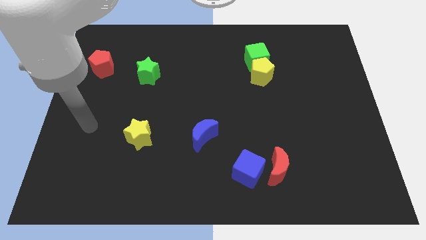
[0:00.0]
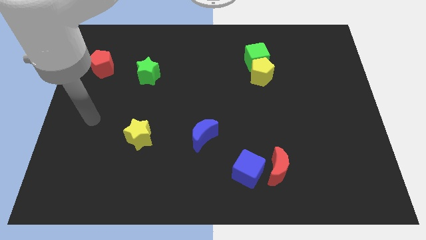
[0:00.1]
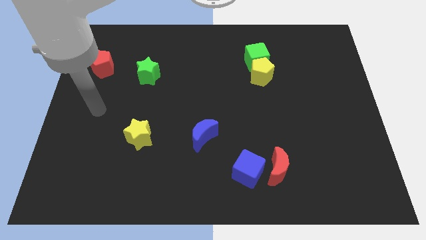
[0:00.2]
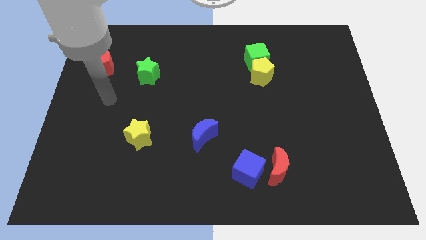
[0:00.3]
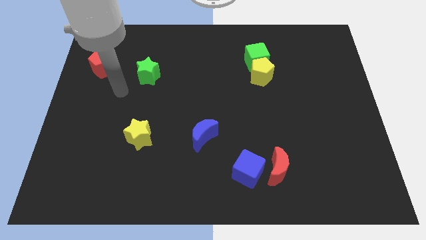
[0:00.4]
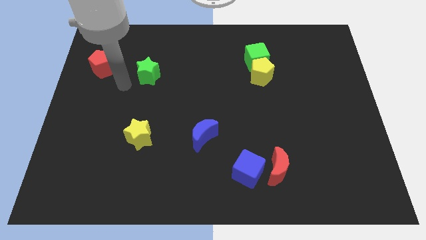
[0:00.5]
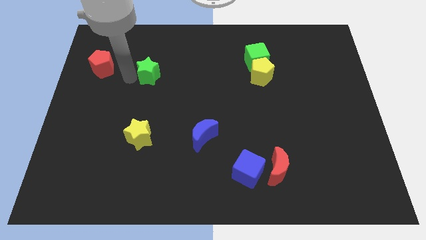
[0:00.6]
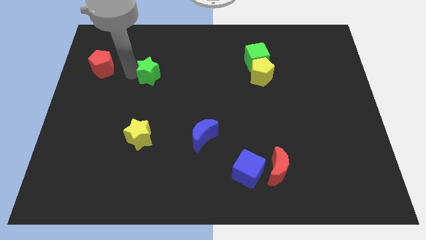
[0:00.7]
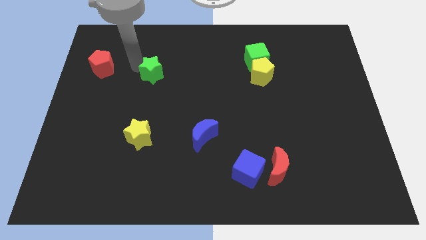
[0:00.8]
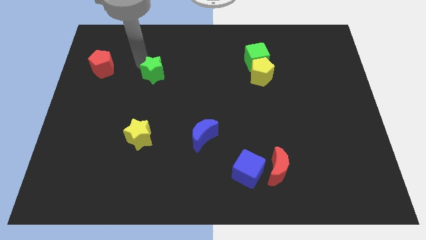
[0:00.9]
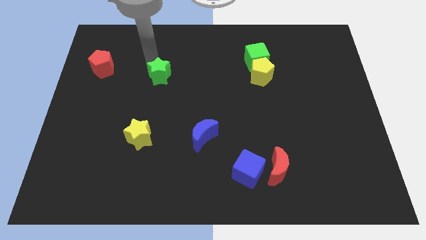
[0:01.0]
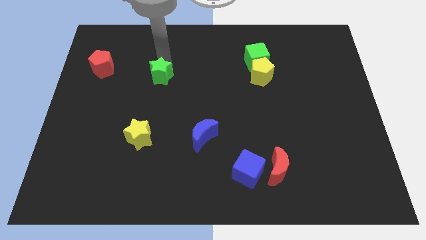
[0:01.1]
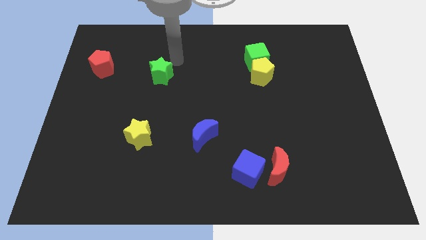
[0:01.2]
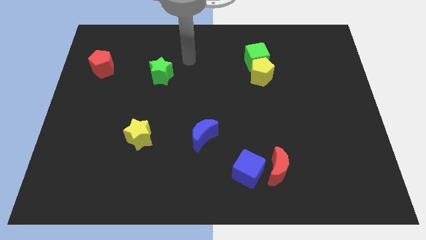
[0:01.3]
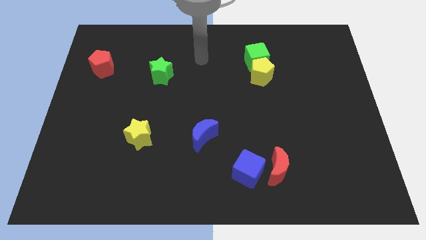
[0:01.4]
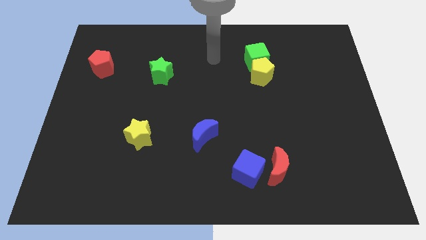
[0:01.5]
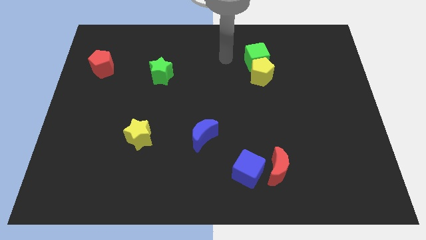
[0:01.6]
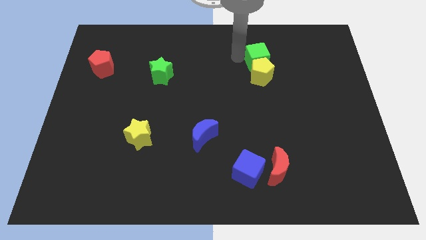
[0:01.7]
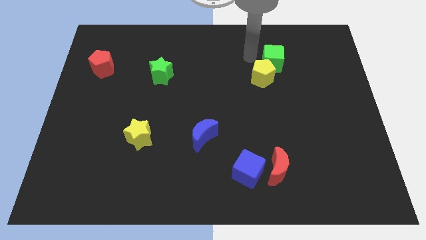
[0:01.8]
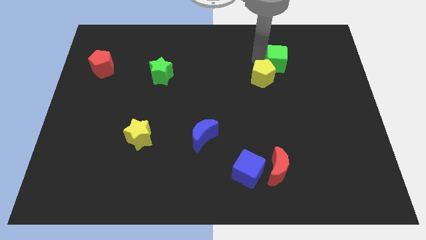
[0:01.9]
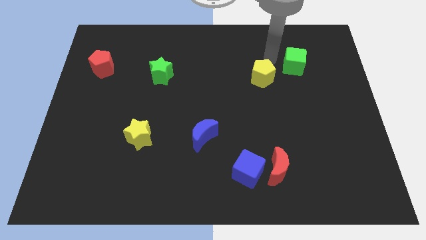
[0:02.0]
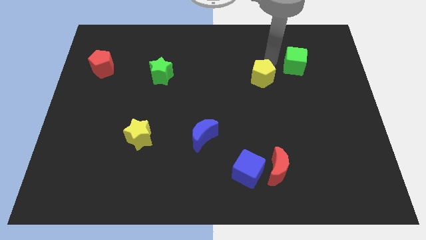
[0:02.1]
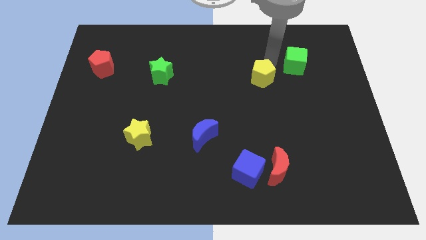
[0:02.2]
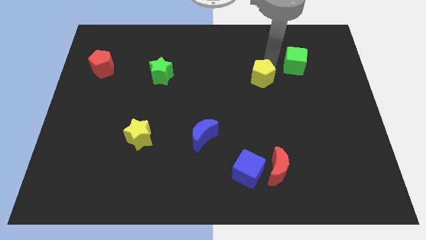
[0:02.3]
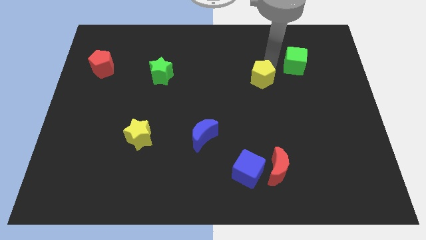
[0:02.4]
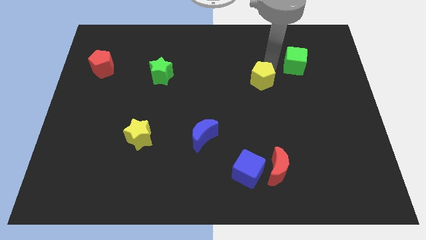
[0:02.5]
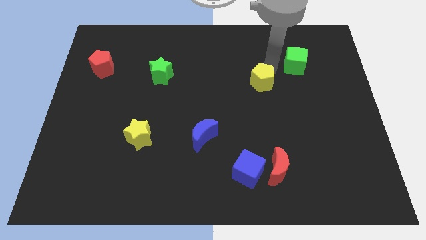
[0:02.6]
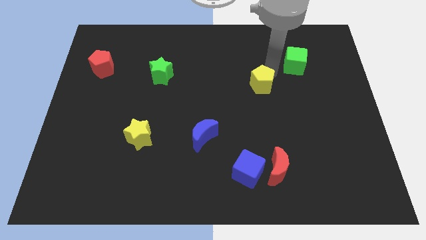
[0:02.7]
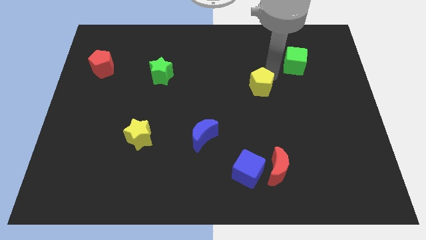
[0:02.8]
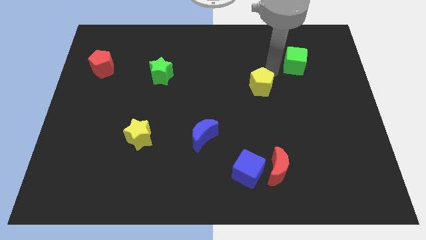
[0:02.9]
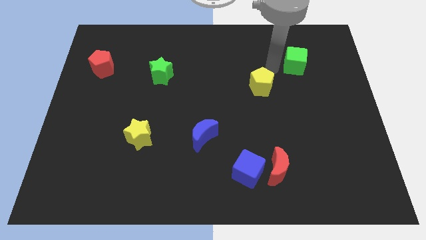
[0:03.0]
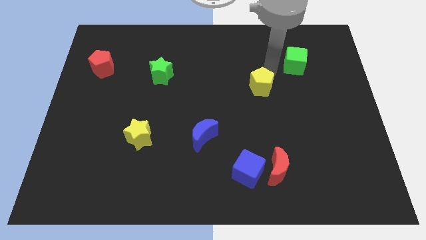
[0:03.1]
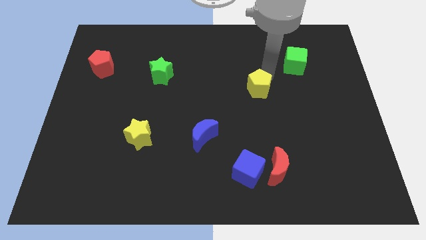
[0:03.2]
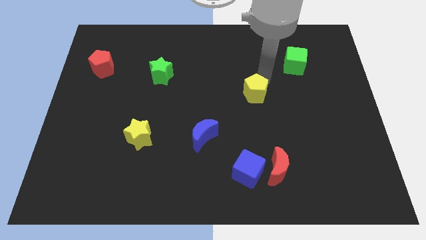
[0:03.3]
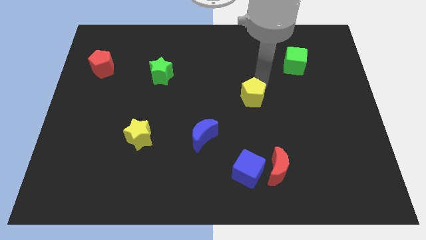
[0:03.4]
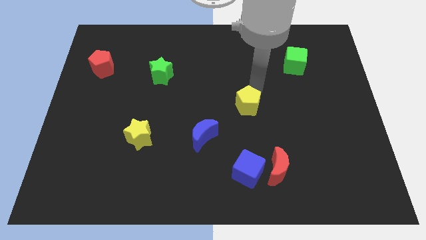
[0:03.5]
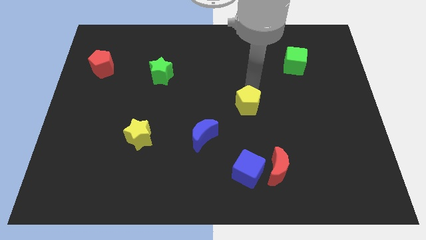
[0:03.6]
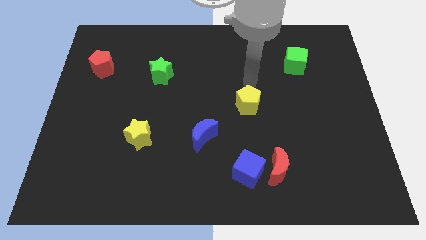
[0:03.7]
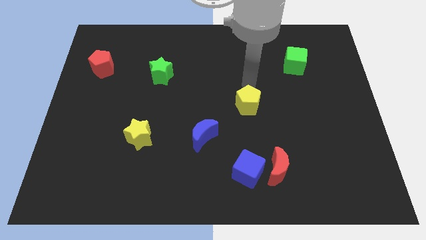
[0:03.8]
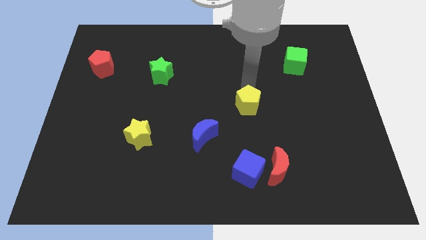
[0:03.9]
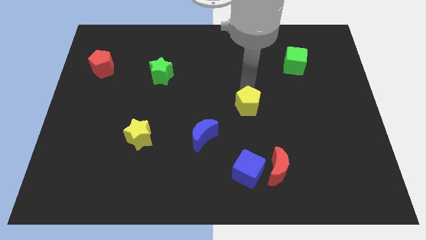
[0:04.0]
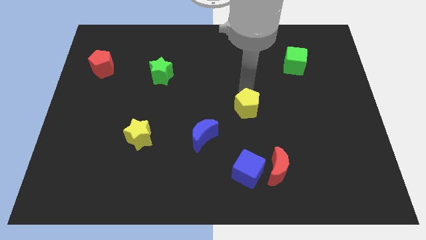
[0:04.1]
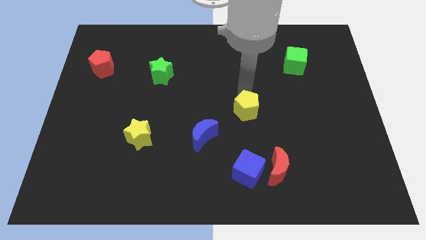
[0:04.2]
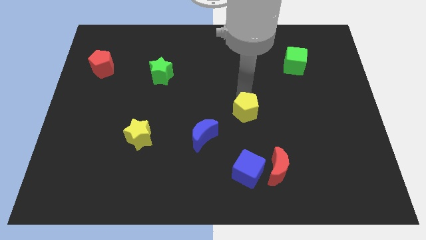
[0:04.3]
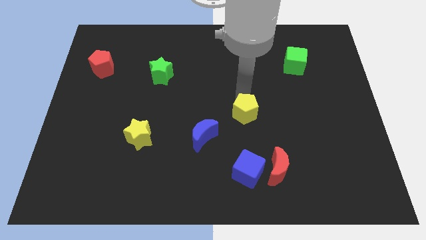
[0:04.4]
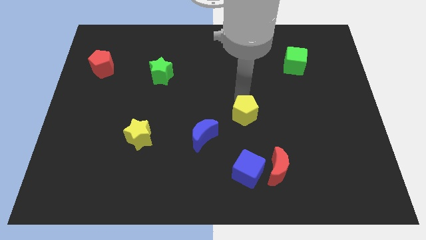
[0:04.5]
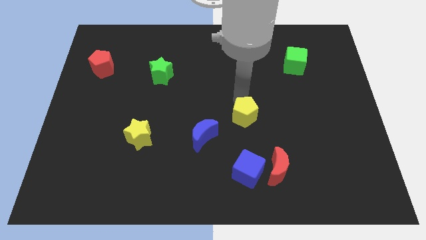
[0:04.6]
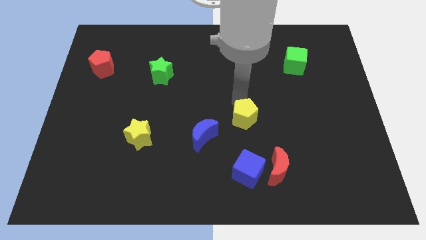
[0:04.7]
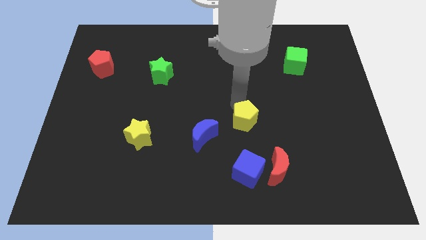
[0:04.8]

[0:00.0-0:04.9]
slide the yellow pentagon just right of the blue moon
